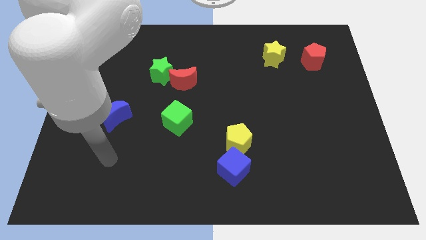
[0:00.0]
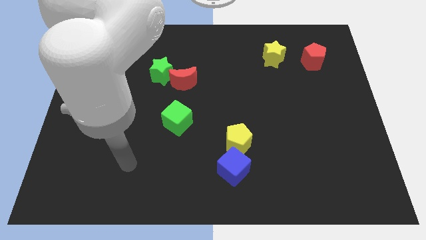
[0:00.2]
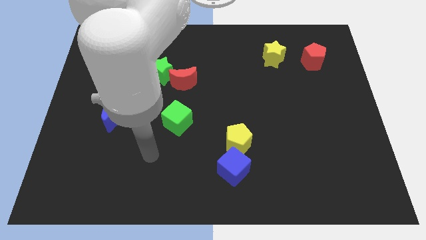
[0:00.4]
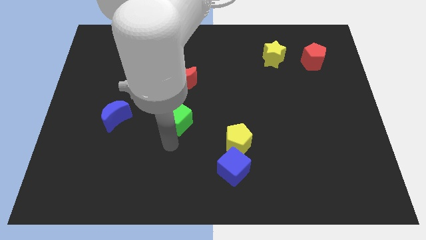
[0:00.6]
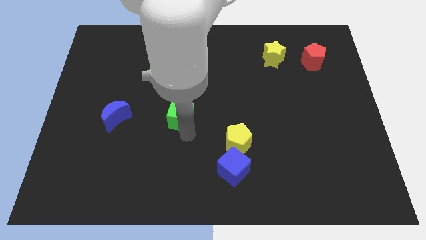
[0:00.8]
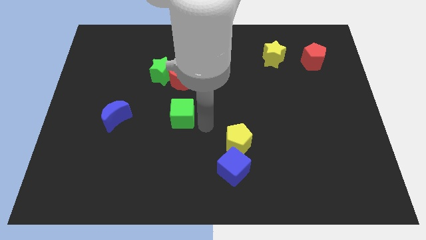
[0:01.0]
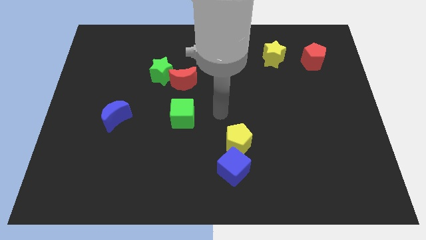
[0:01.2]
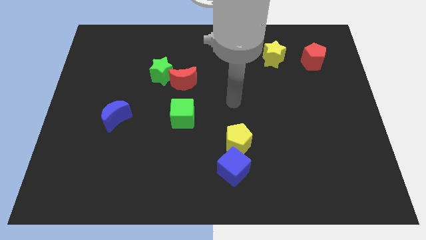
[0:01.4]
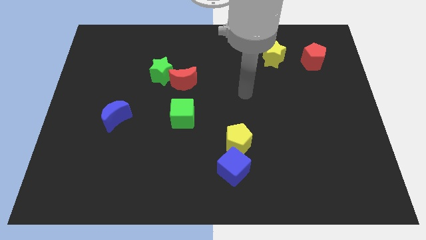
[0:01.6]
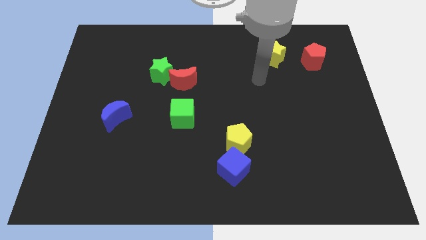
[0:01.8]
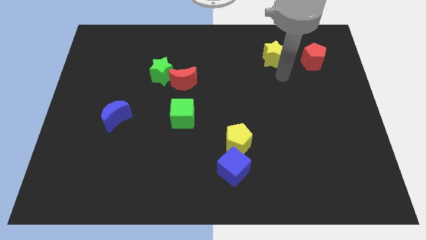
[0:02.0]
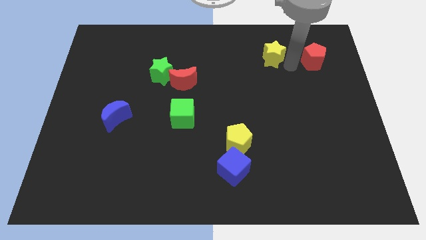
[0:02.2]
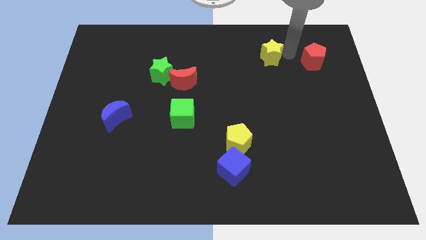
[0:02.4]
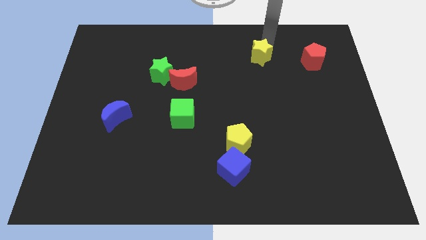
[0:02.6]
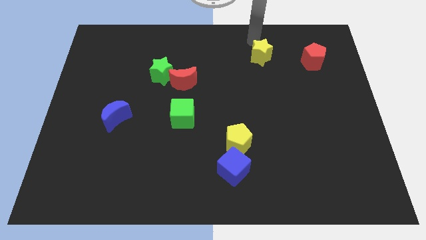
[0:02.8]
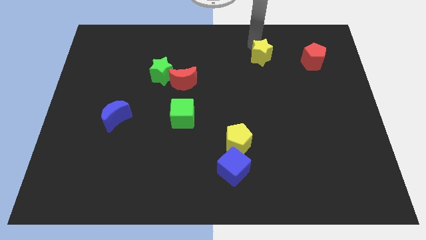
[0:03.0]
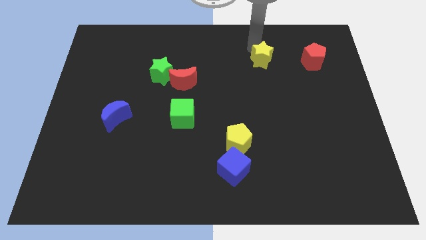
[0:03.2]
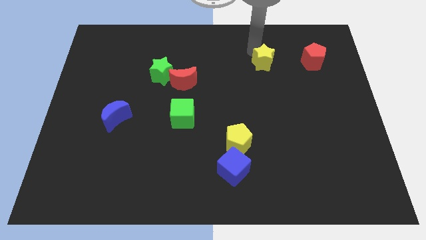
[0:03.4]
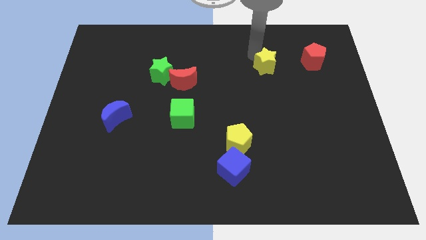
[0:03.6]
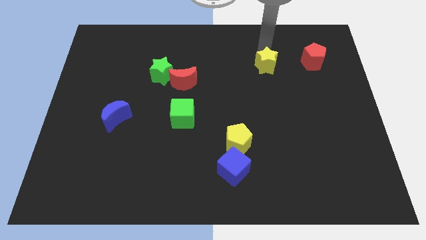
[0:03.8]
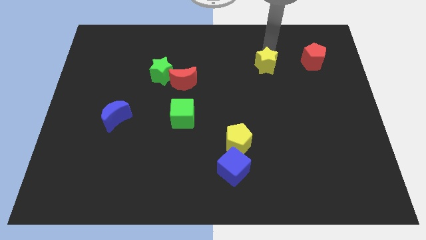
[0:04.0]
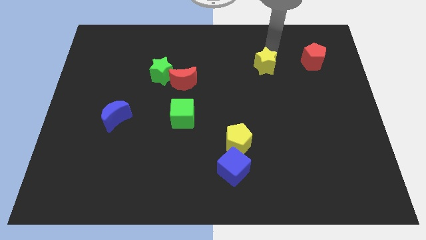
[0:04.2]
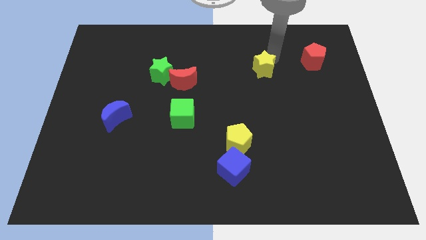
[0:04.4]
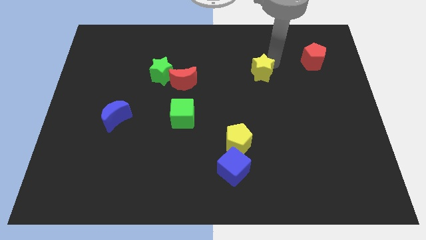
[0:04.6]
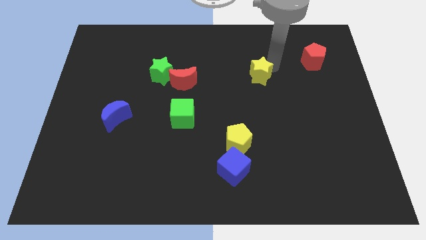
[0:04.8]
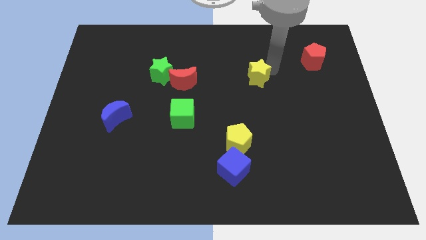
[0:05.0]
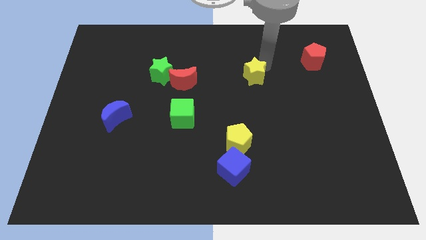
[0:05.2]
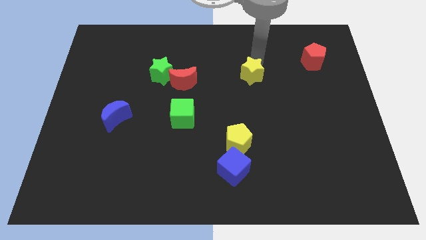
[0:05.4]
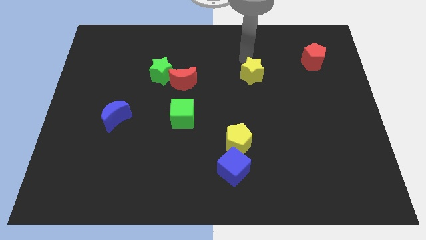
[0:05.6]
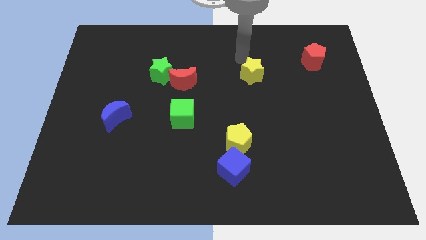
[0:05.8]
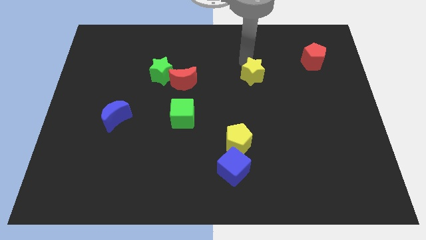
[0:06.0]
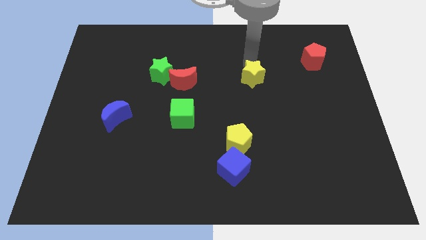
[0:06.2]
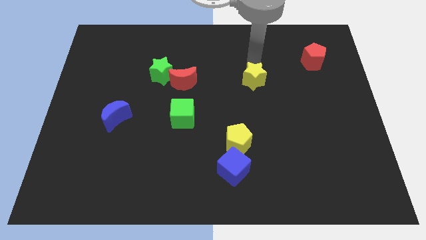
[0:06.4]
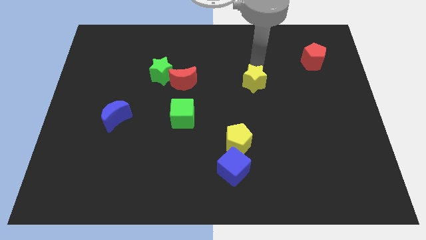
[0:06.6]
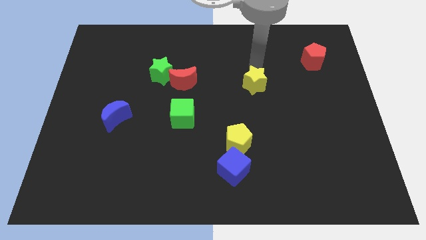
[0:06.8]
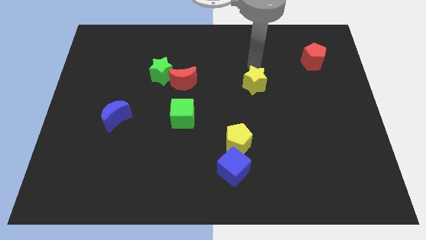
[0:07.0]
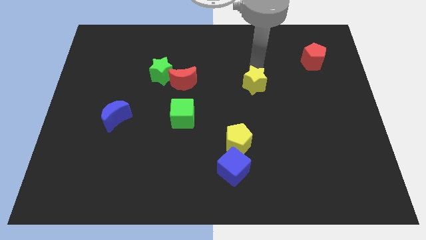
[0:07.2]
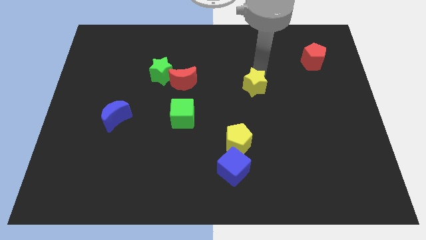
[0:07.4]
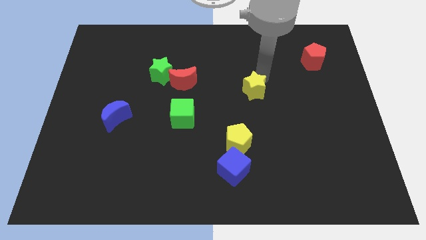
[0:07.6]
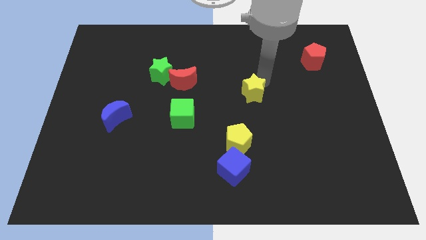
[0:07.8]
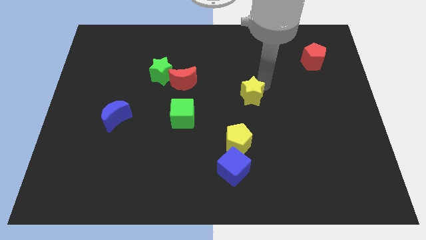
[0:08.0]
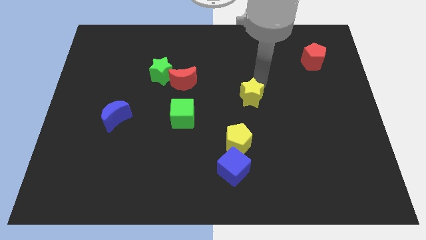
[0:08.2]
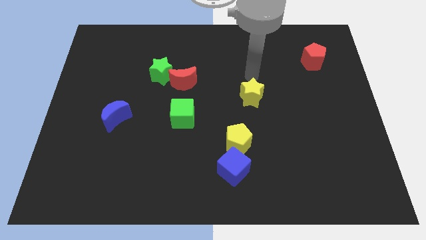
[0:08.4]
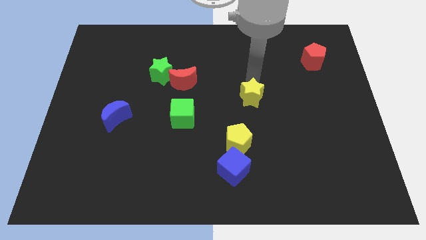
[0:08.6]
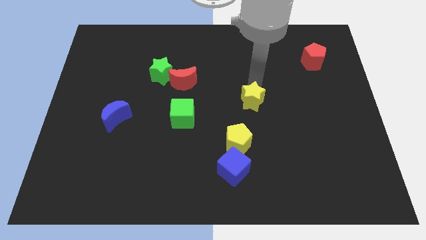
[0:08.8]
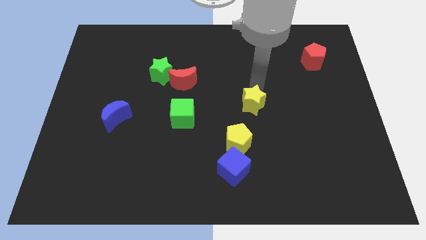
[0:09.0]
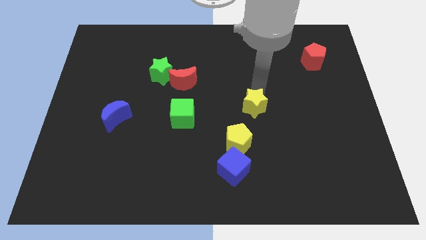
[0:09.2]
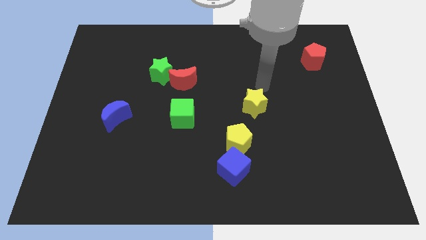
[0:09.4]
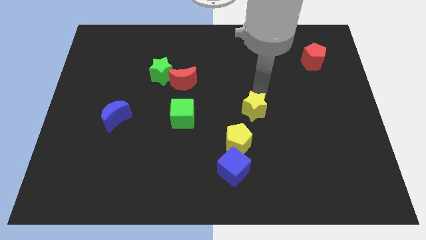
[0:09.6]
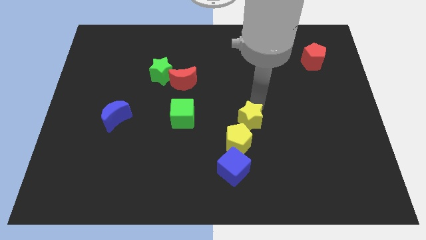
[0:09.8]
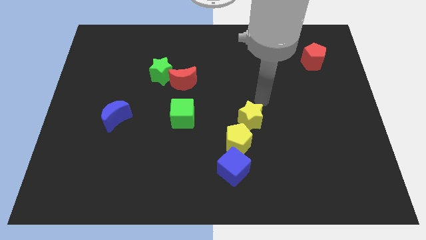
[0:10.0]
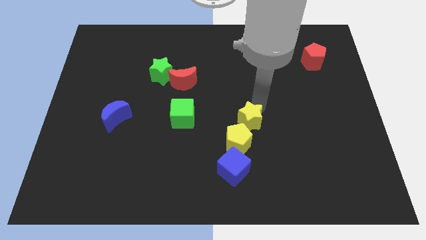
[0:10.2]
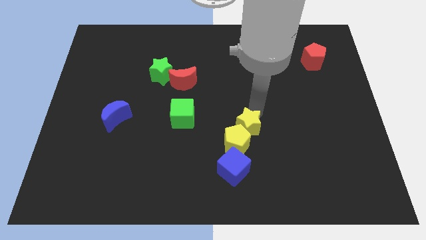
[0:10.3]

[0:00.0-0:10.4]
push the yellow star towards the yellow pentagon
